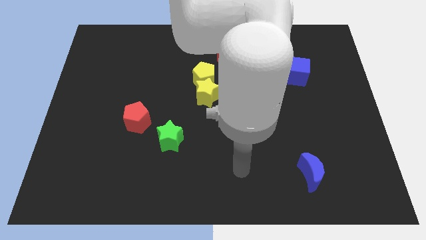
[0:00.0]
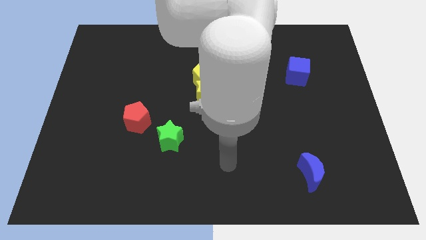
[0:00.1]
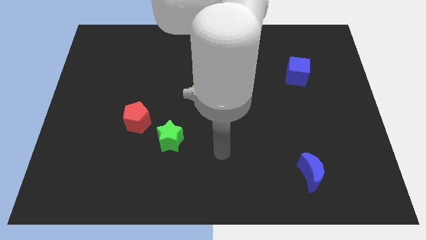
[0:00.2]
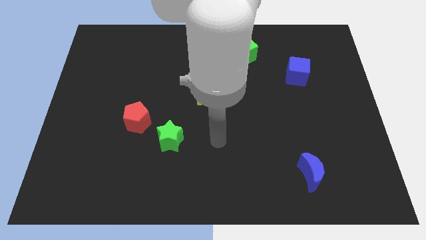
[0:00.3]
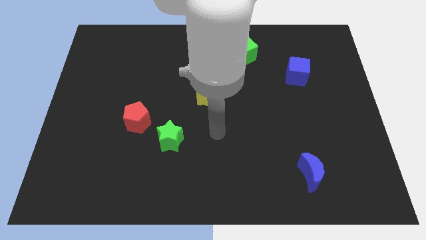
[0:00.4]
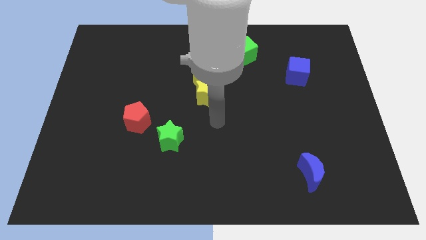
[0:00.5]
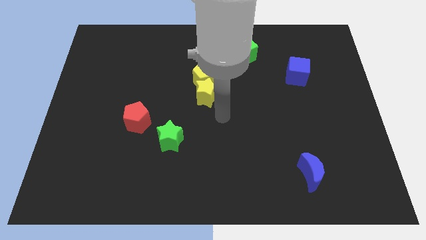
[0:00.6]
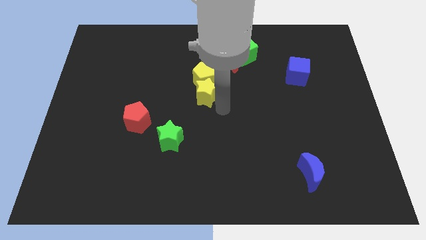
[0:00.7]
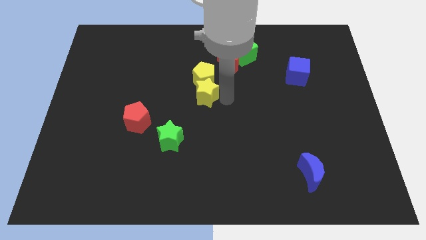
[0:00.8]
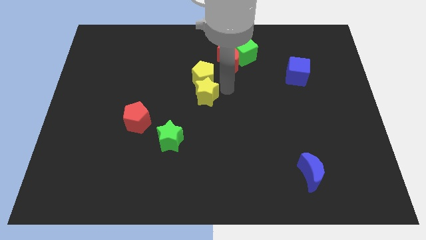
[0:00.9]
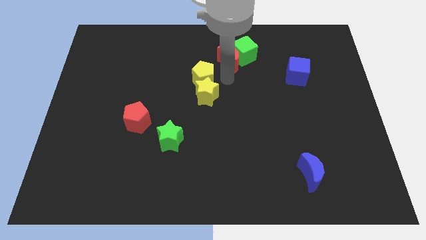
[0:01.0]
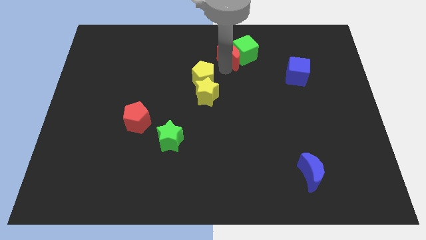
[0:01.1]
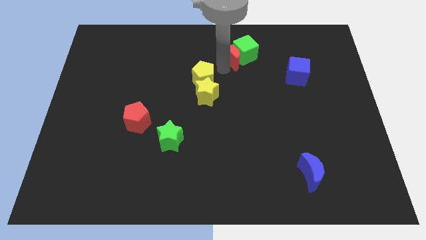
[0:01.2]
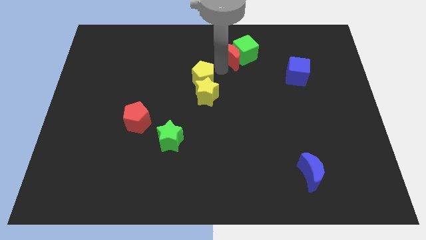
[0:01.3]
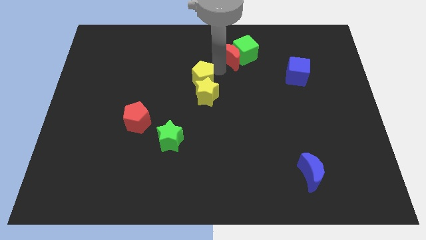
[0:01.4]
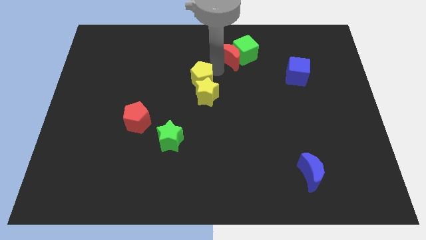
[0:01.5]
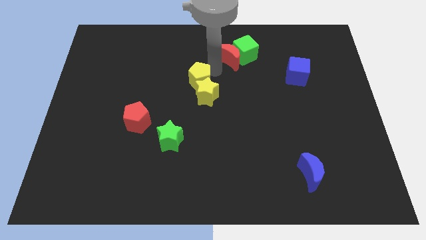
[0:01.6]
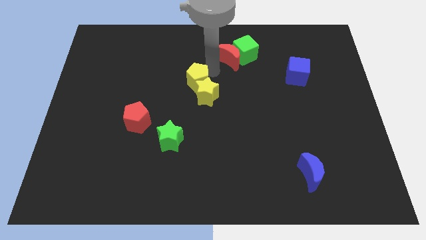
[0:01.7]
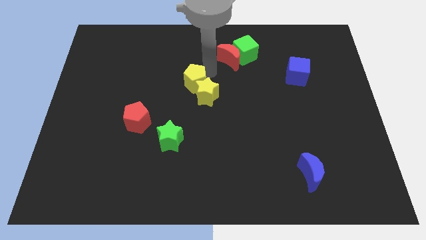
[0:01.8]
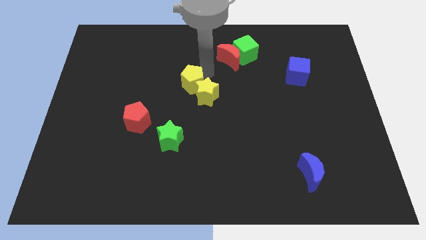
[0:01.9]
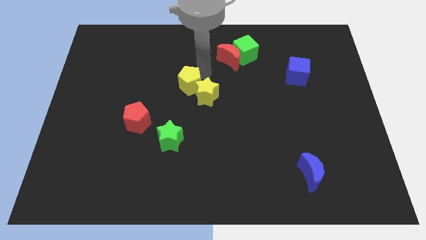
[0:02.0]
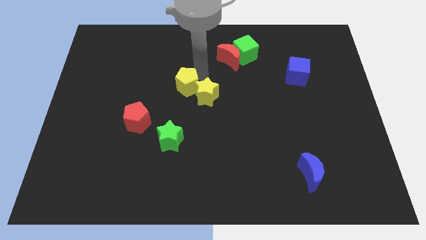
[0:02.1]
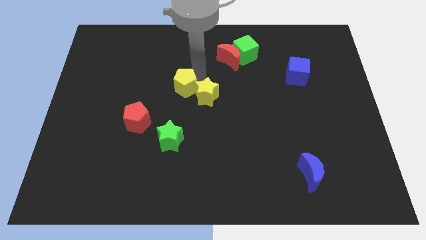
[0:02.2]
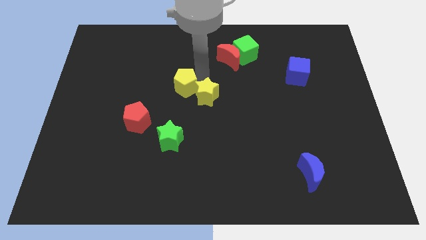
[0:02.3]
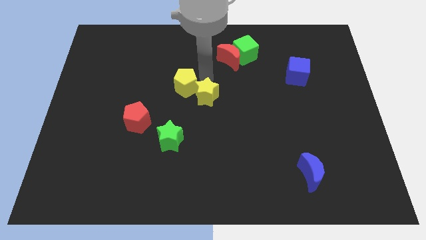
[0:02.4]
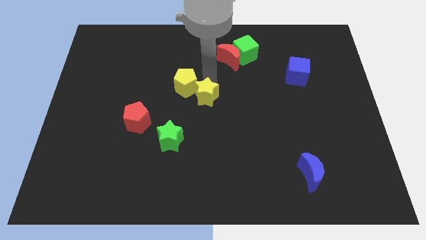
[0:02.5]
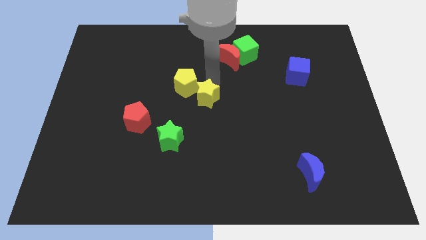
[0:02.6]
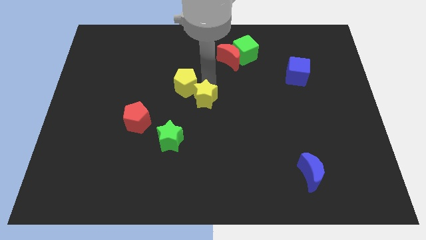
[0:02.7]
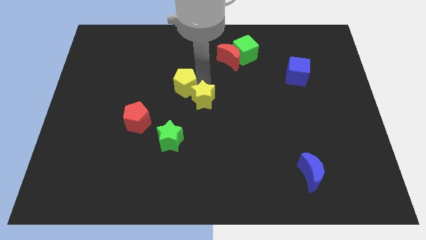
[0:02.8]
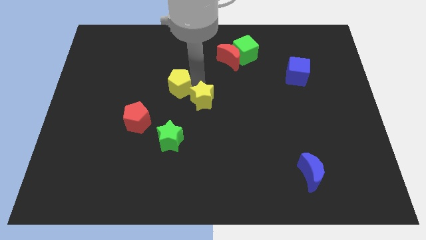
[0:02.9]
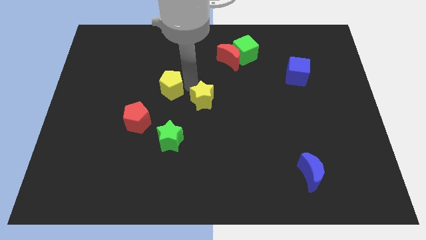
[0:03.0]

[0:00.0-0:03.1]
slightly move the yellow pentagon left

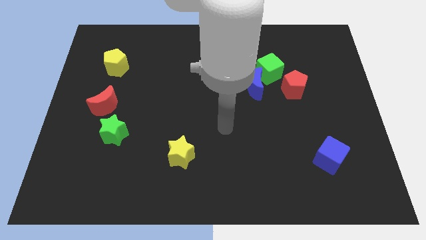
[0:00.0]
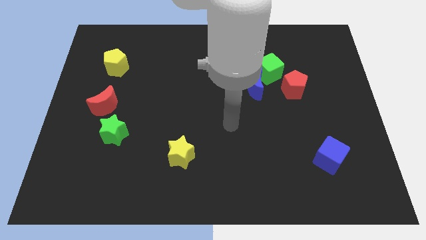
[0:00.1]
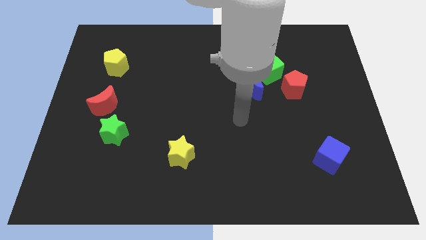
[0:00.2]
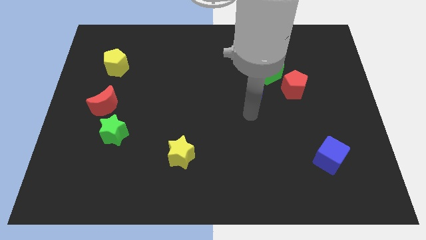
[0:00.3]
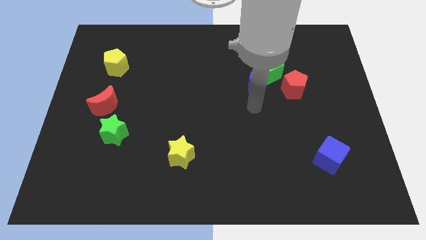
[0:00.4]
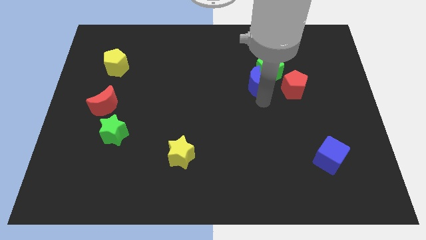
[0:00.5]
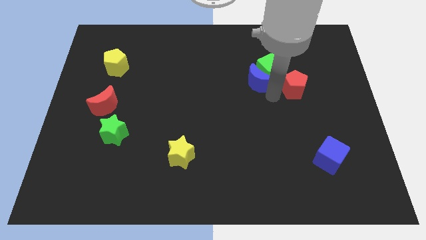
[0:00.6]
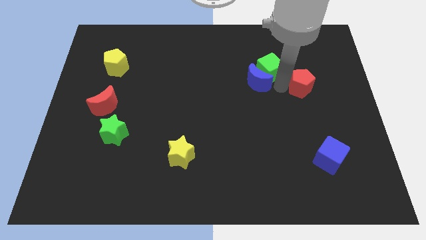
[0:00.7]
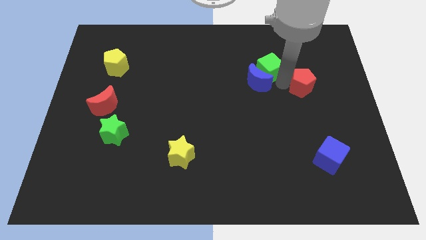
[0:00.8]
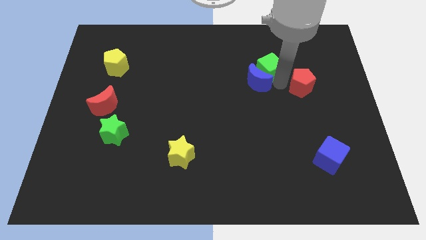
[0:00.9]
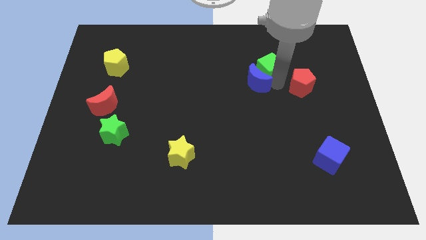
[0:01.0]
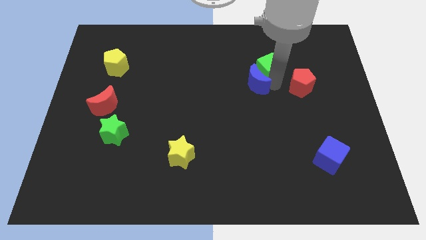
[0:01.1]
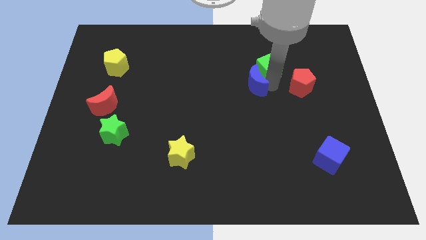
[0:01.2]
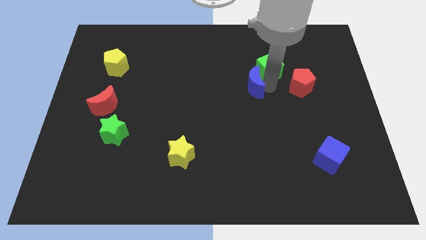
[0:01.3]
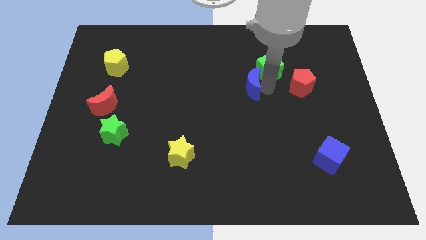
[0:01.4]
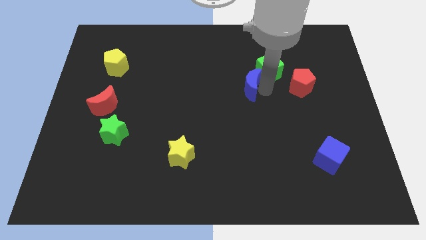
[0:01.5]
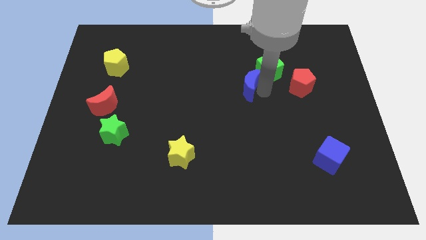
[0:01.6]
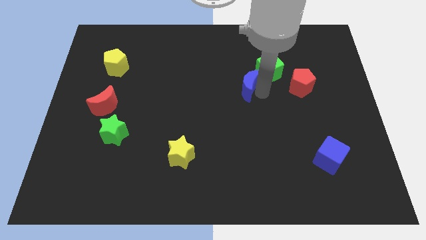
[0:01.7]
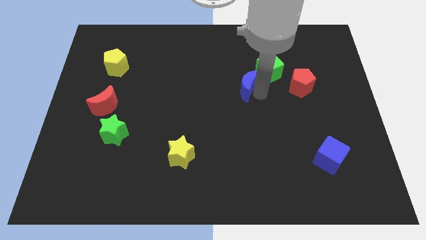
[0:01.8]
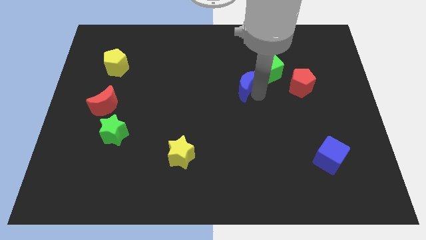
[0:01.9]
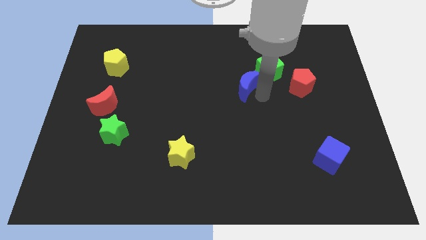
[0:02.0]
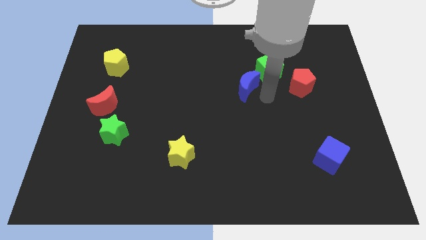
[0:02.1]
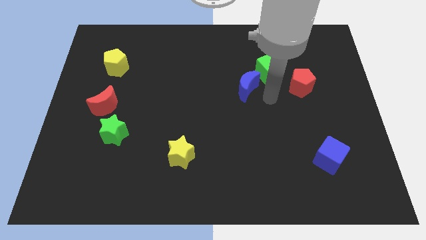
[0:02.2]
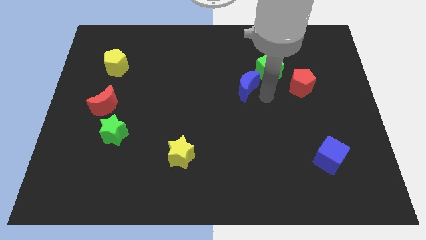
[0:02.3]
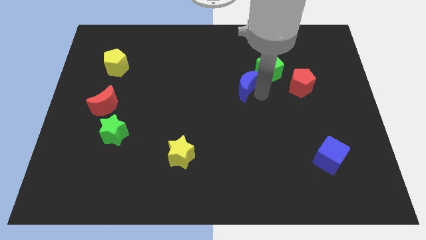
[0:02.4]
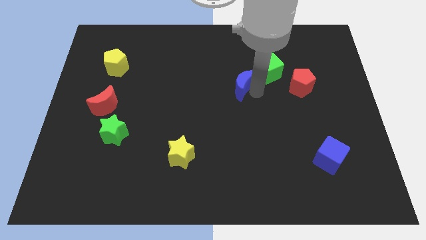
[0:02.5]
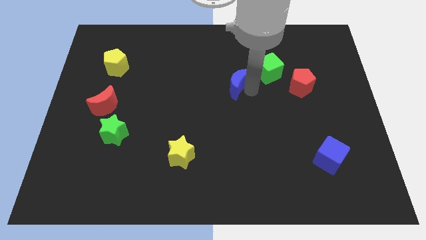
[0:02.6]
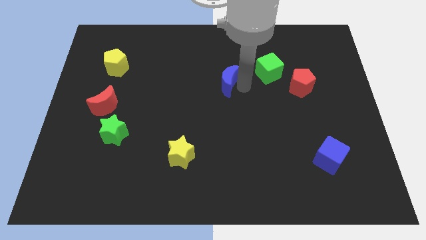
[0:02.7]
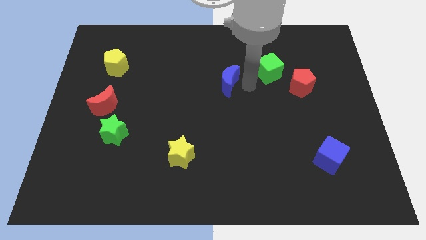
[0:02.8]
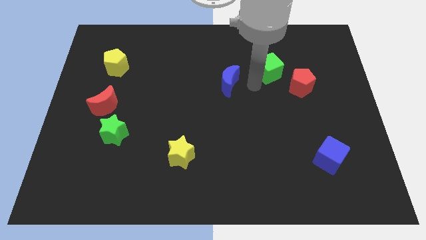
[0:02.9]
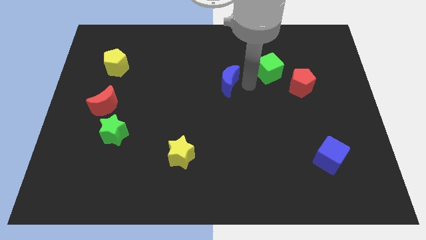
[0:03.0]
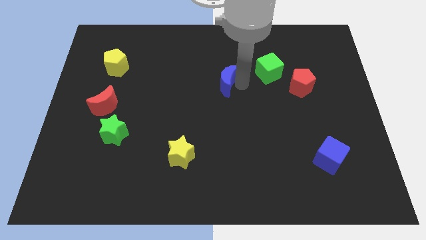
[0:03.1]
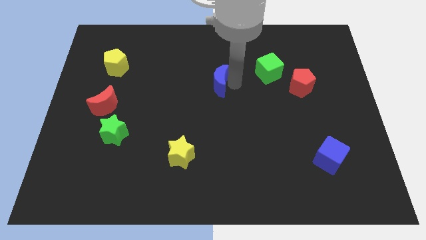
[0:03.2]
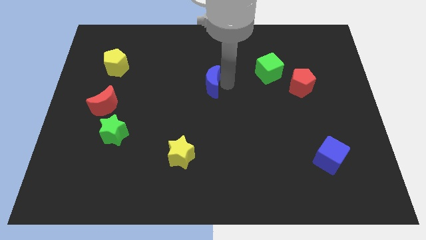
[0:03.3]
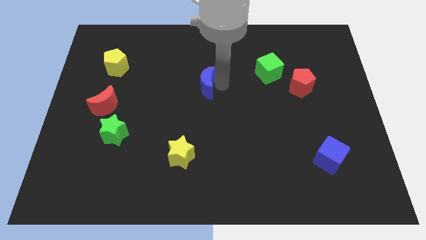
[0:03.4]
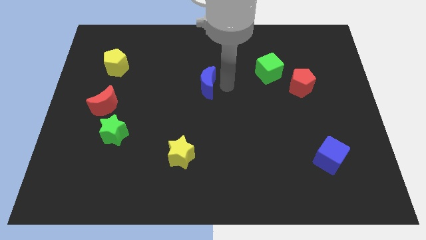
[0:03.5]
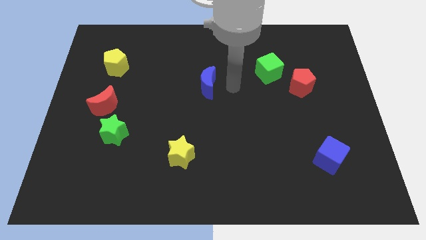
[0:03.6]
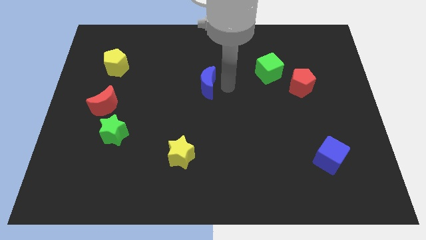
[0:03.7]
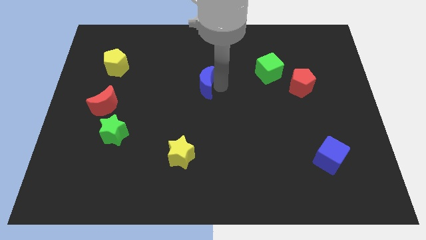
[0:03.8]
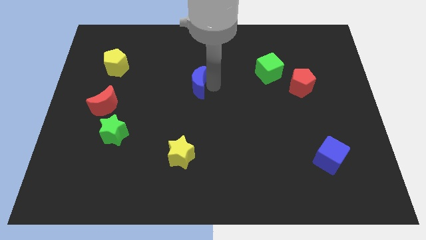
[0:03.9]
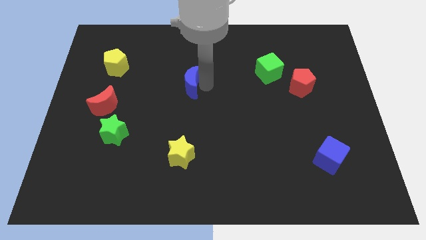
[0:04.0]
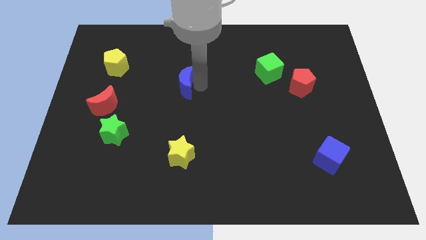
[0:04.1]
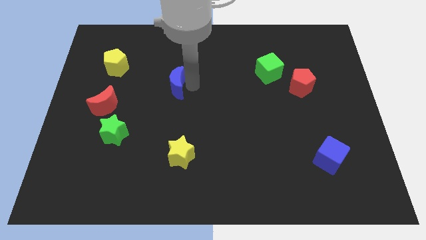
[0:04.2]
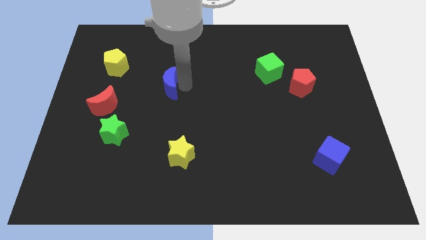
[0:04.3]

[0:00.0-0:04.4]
move the blue moon to the left

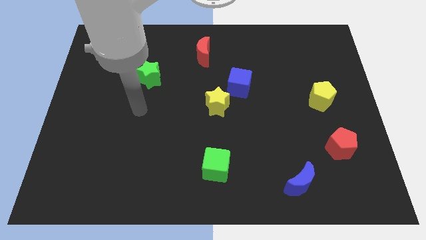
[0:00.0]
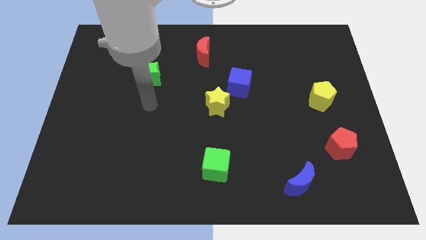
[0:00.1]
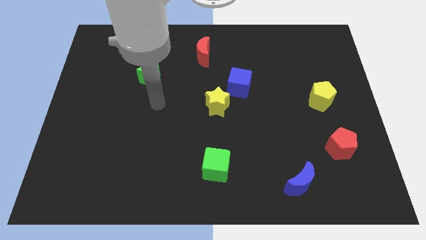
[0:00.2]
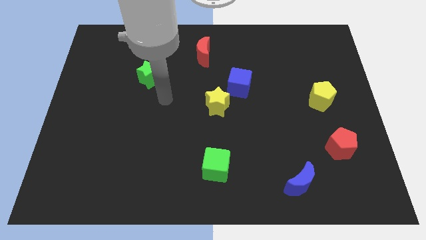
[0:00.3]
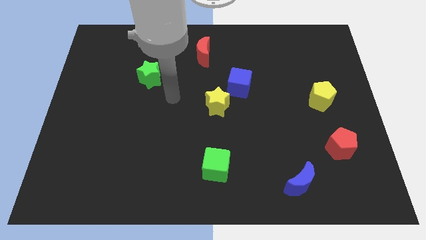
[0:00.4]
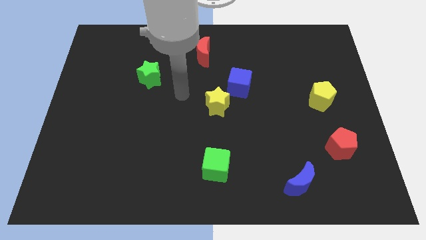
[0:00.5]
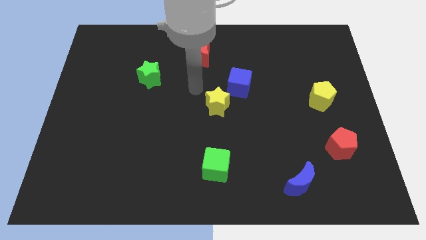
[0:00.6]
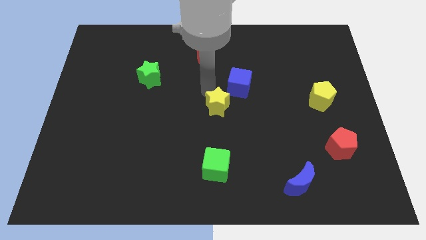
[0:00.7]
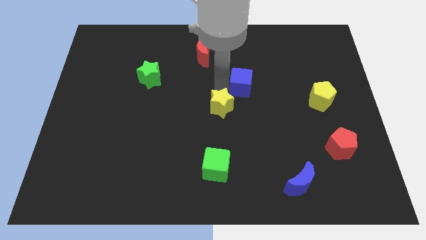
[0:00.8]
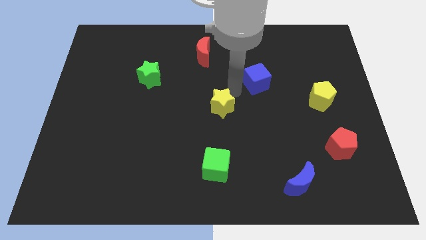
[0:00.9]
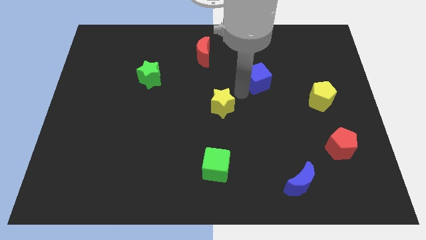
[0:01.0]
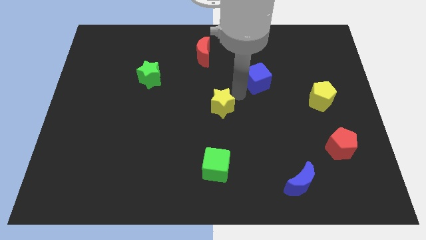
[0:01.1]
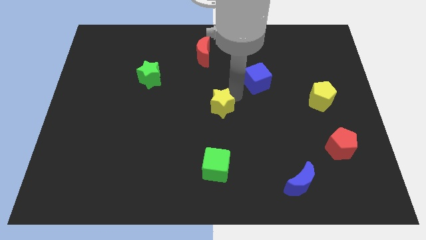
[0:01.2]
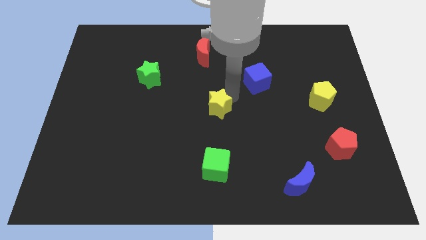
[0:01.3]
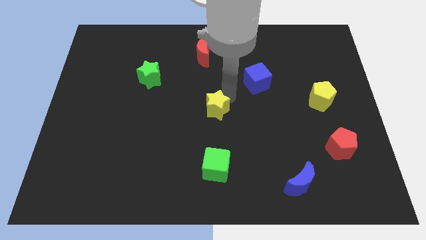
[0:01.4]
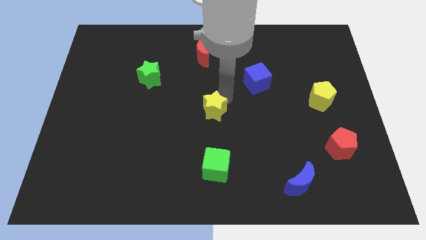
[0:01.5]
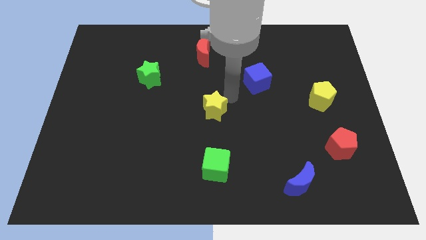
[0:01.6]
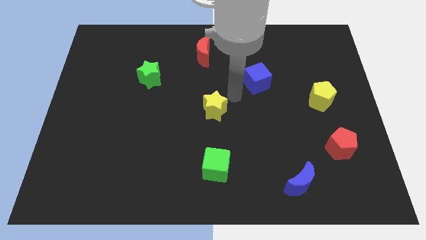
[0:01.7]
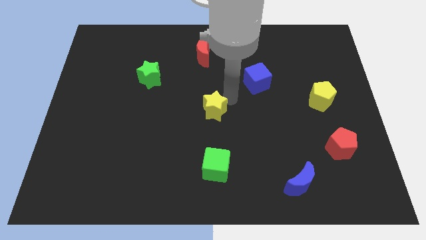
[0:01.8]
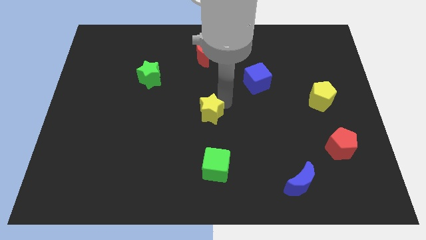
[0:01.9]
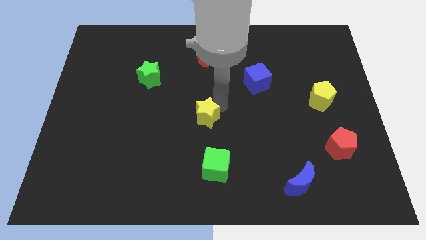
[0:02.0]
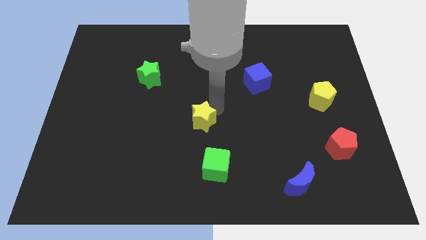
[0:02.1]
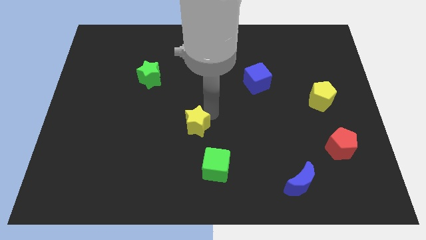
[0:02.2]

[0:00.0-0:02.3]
slide the yellow star a little bit diagonally down and to the left
